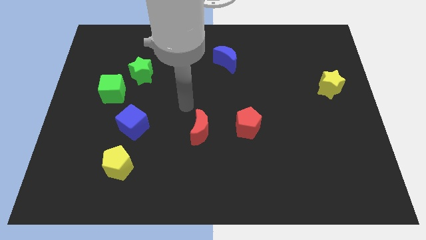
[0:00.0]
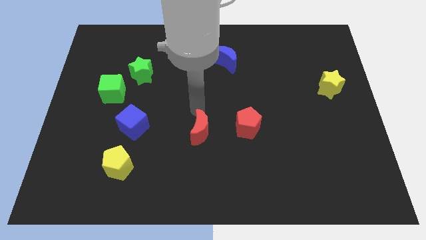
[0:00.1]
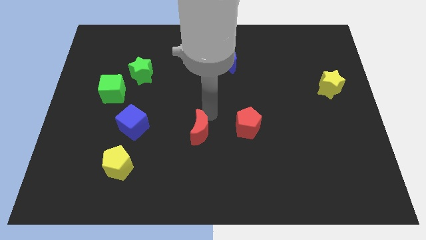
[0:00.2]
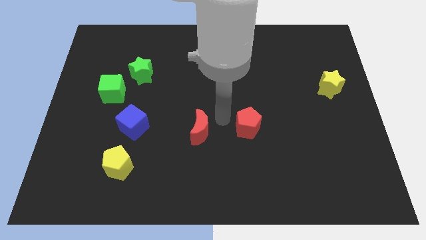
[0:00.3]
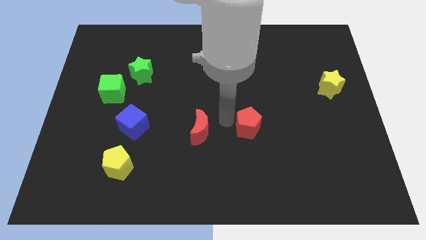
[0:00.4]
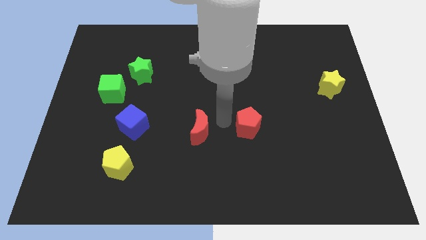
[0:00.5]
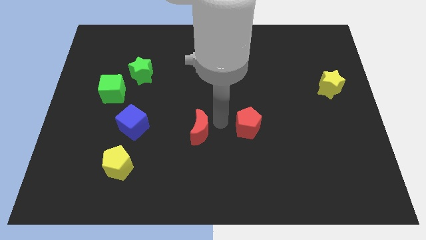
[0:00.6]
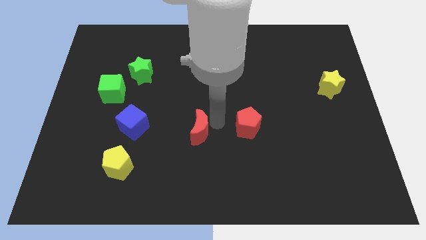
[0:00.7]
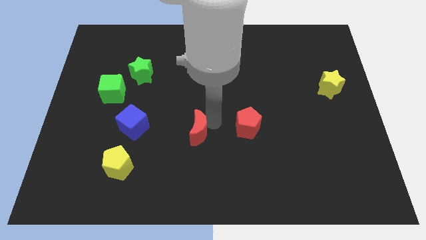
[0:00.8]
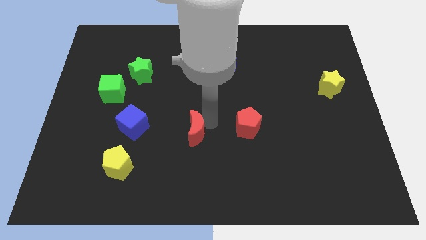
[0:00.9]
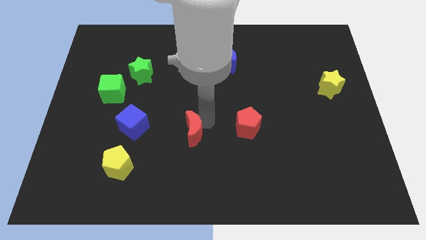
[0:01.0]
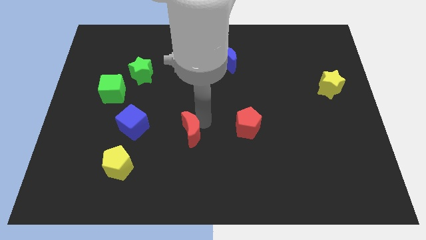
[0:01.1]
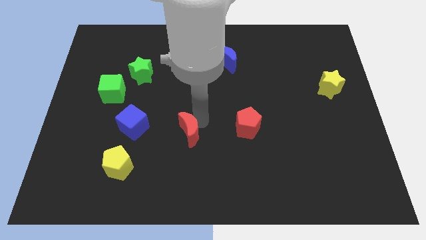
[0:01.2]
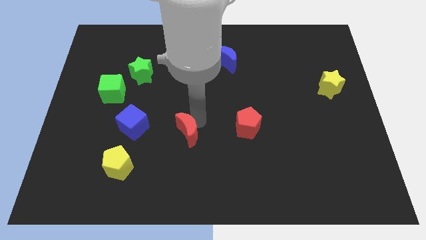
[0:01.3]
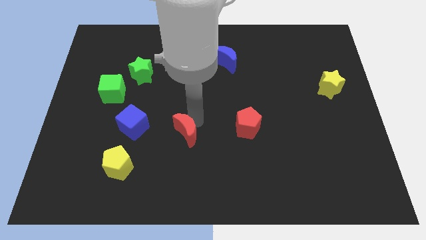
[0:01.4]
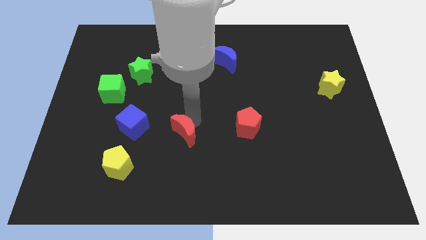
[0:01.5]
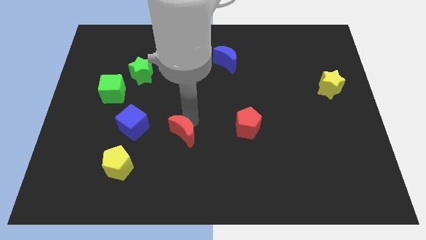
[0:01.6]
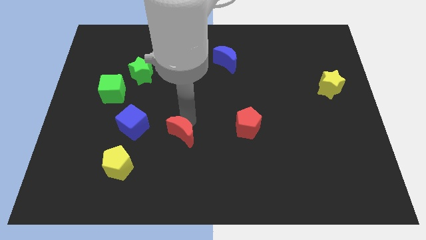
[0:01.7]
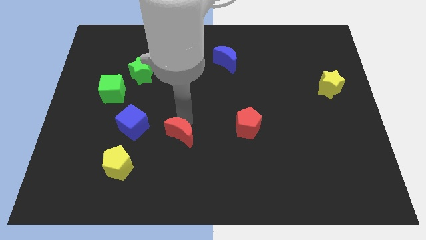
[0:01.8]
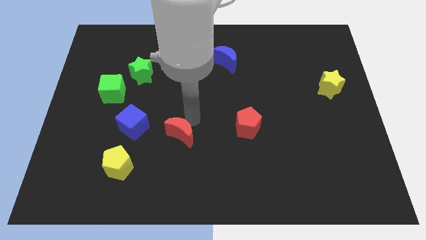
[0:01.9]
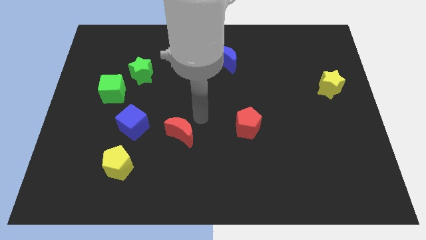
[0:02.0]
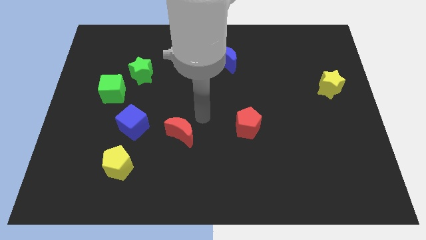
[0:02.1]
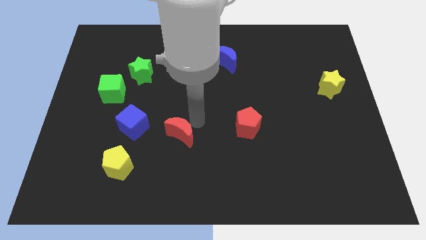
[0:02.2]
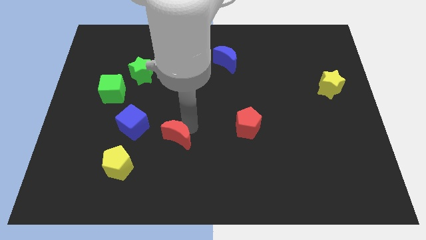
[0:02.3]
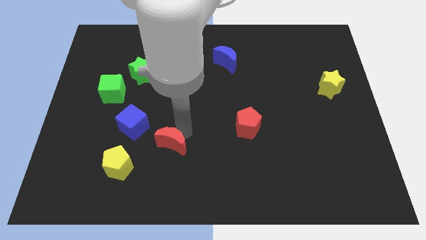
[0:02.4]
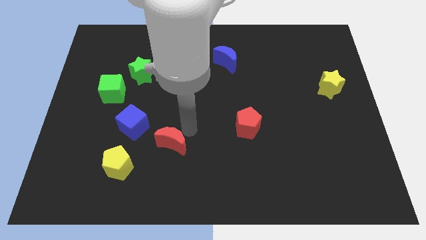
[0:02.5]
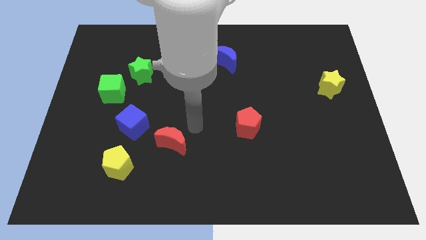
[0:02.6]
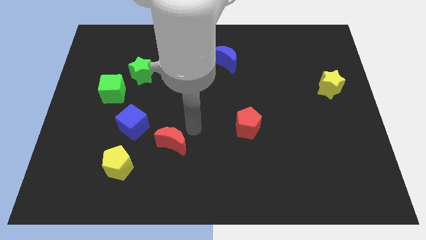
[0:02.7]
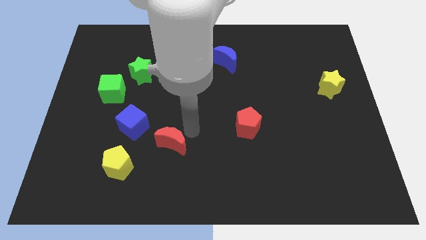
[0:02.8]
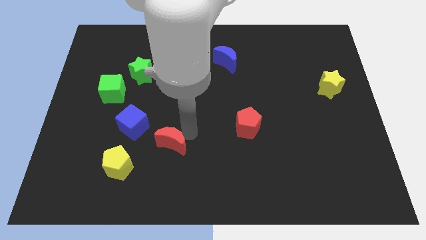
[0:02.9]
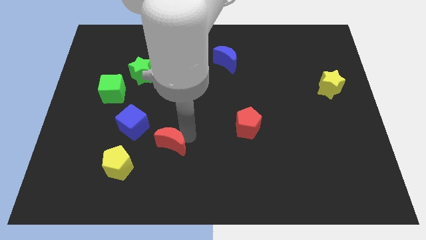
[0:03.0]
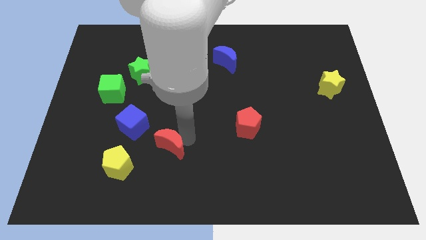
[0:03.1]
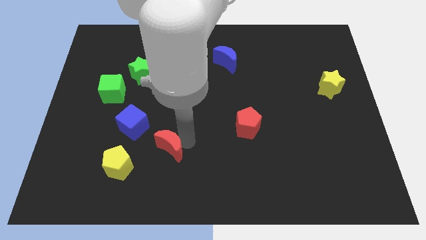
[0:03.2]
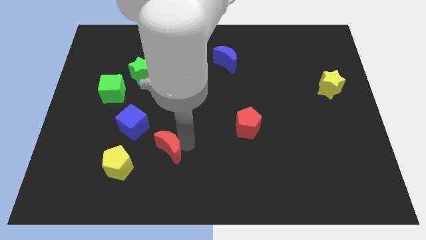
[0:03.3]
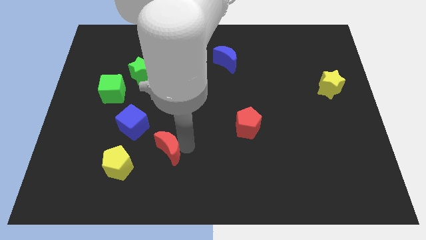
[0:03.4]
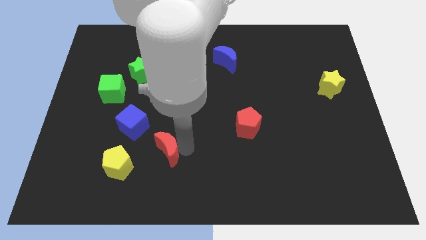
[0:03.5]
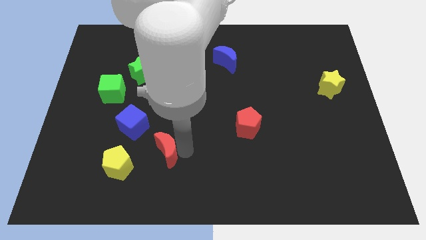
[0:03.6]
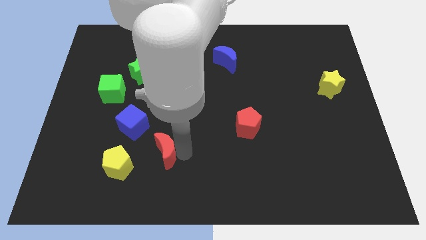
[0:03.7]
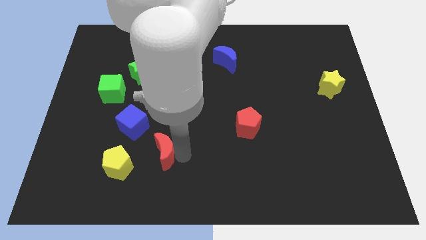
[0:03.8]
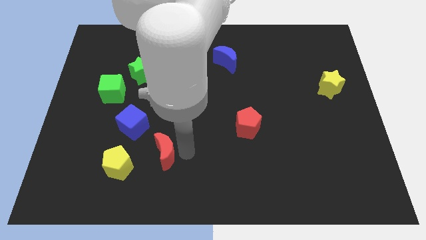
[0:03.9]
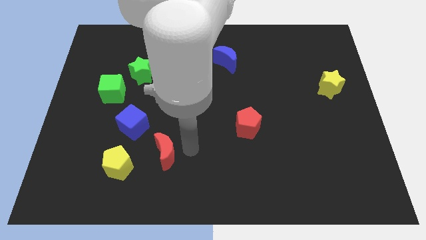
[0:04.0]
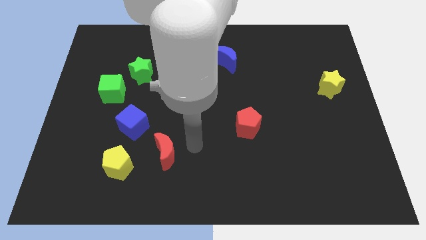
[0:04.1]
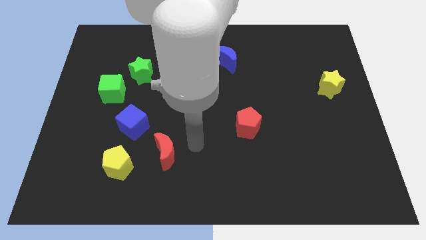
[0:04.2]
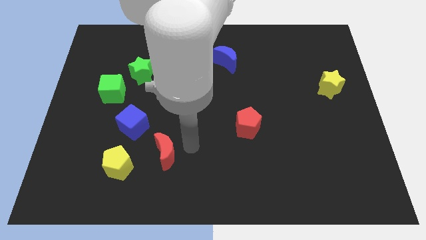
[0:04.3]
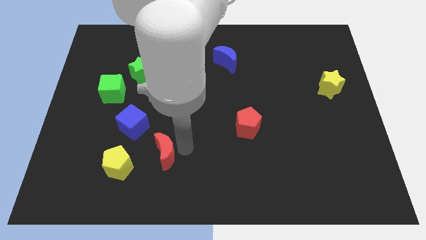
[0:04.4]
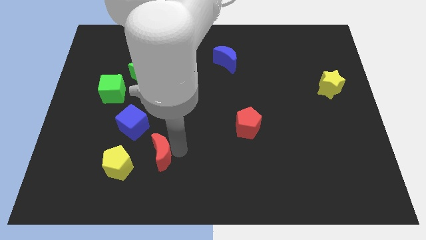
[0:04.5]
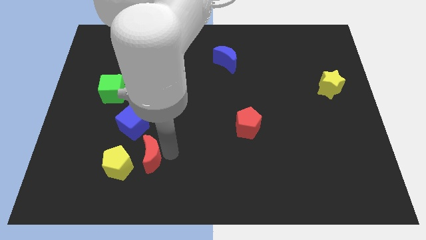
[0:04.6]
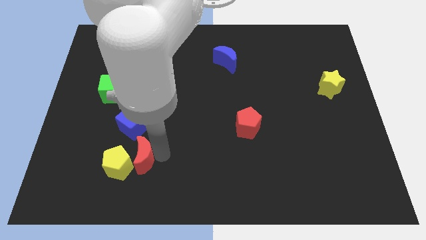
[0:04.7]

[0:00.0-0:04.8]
move the red moon next to the yellow pentagon

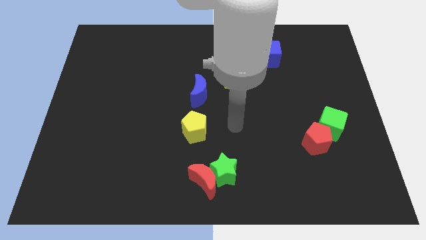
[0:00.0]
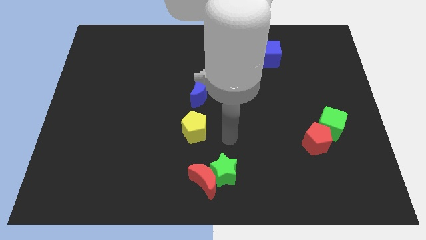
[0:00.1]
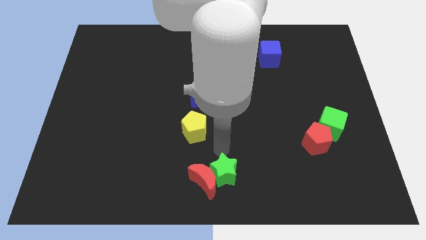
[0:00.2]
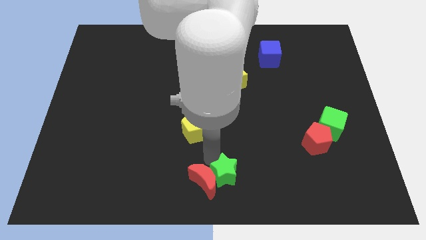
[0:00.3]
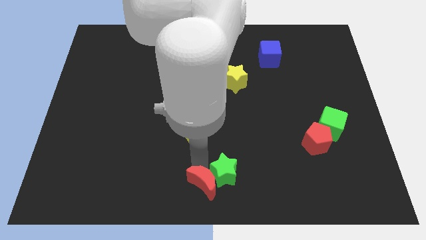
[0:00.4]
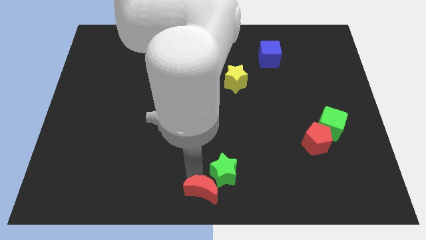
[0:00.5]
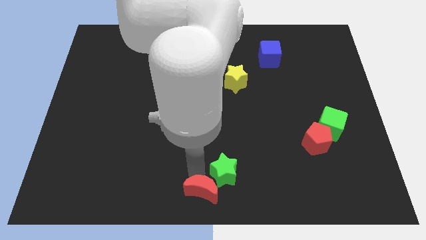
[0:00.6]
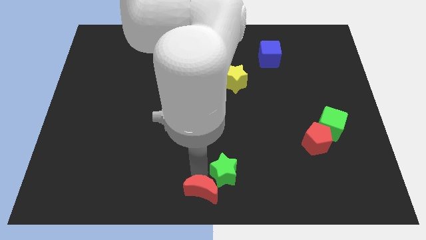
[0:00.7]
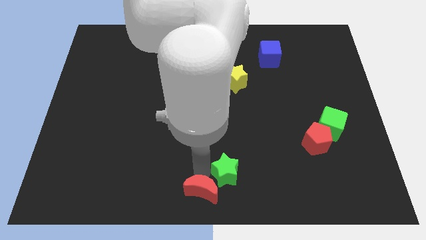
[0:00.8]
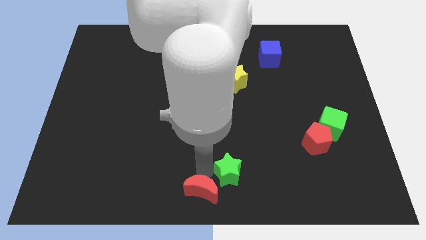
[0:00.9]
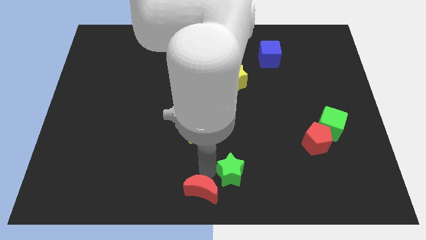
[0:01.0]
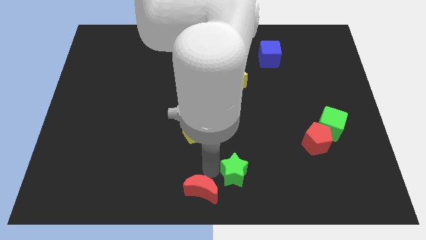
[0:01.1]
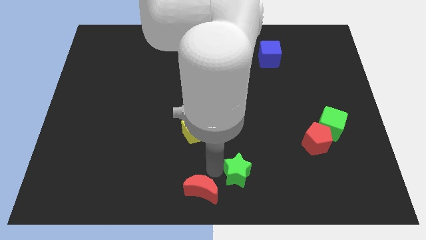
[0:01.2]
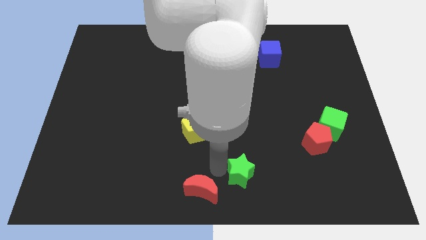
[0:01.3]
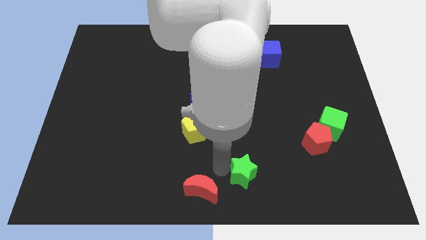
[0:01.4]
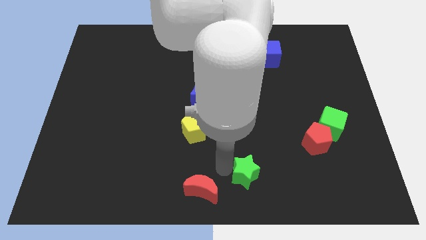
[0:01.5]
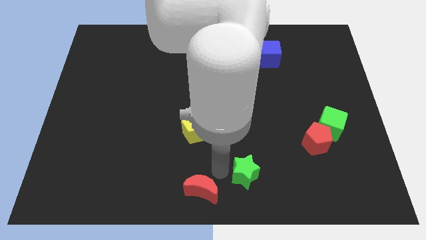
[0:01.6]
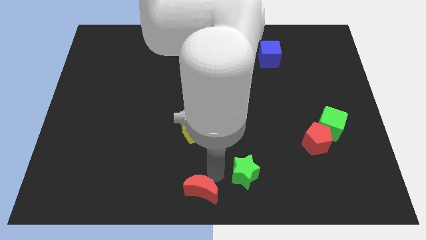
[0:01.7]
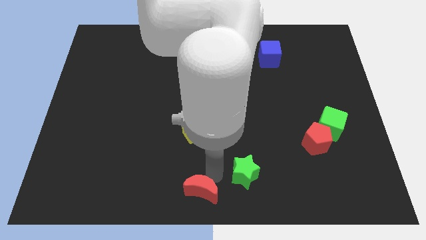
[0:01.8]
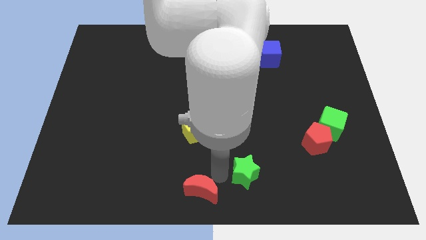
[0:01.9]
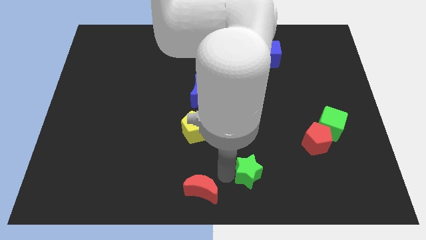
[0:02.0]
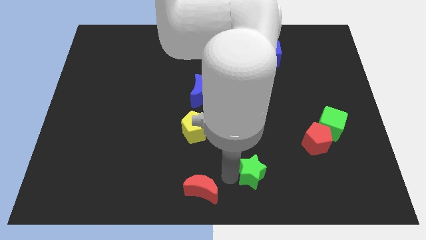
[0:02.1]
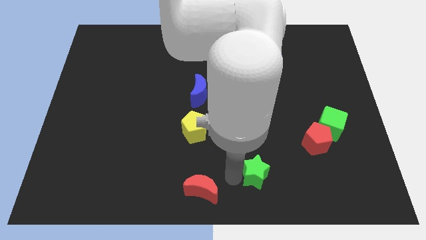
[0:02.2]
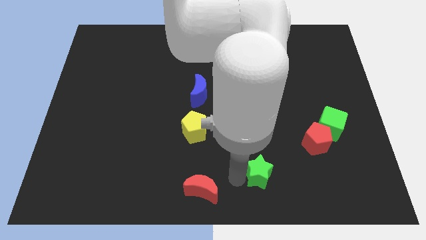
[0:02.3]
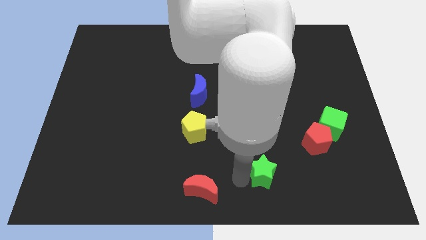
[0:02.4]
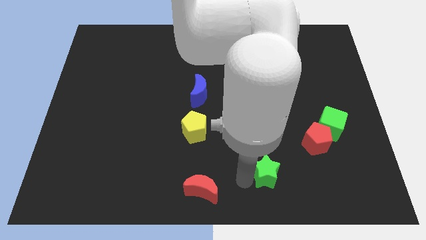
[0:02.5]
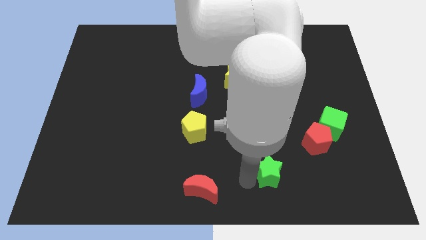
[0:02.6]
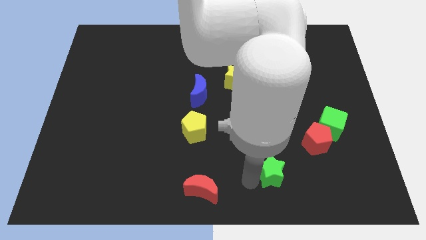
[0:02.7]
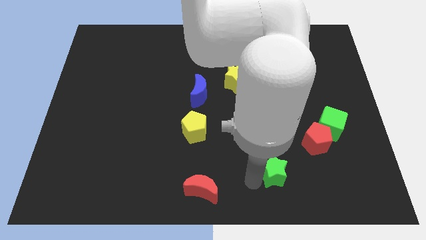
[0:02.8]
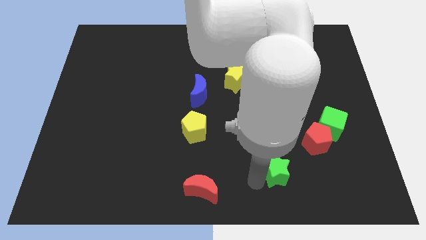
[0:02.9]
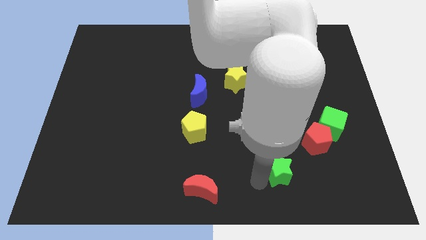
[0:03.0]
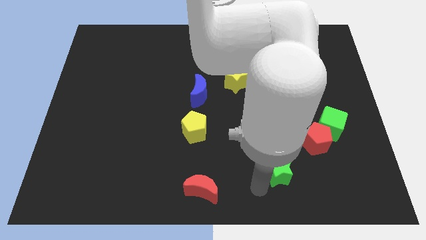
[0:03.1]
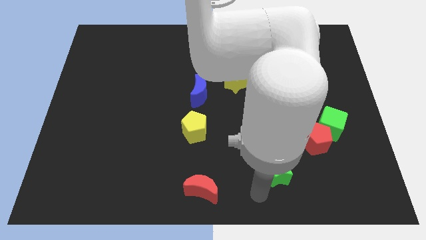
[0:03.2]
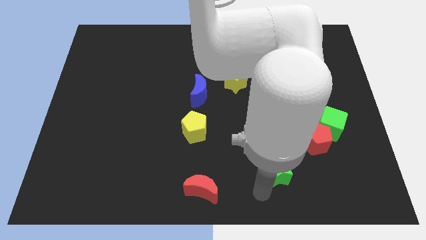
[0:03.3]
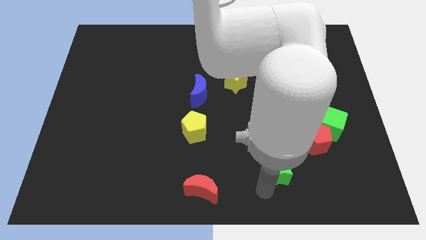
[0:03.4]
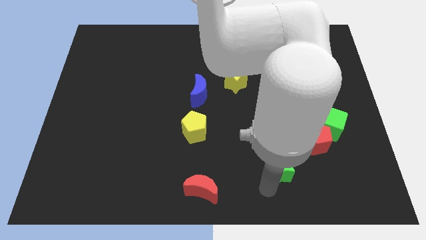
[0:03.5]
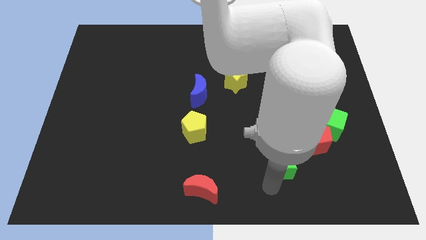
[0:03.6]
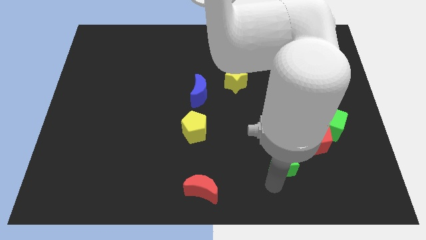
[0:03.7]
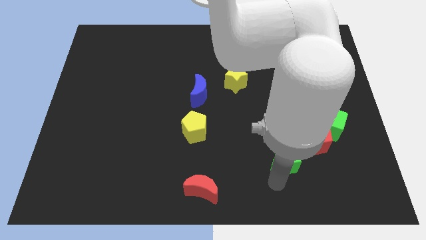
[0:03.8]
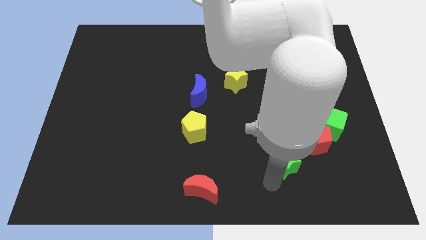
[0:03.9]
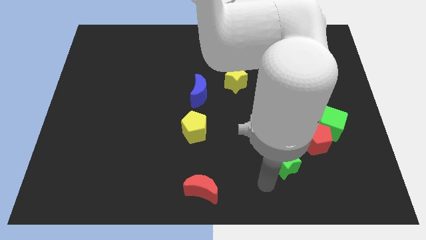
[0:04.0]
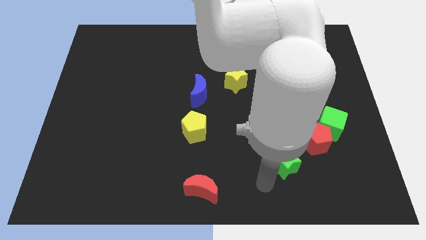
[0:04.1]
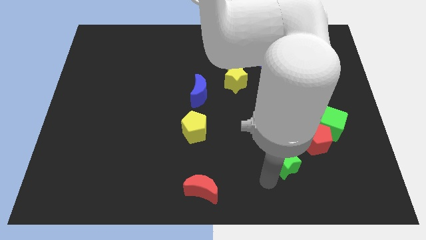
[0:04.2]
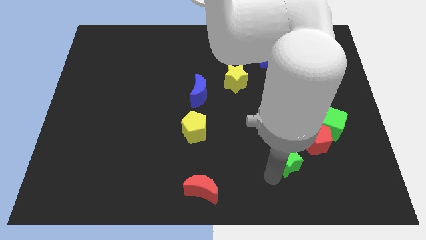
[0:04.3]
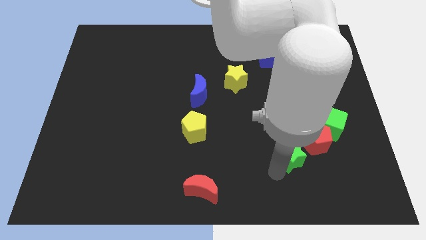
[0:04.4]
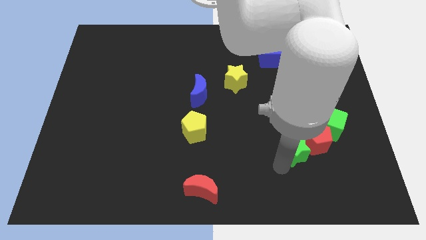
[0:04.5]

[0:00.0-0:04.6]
put the green star close to the red pentagon
